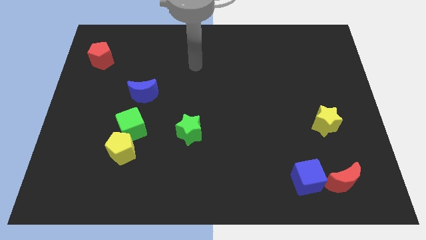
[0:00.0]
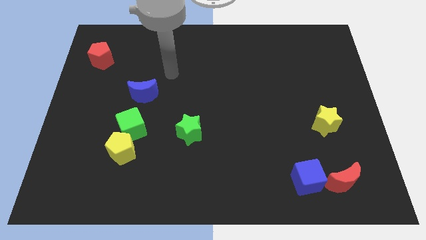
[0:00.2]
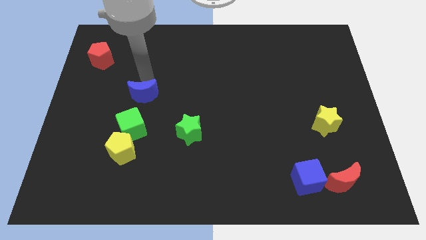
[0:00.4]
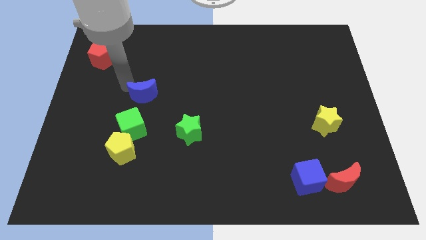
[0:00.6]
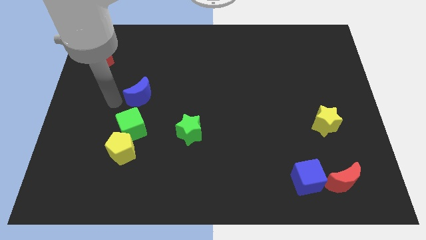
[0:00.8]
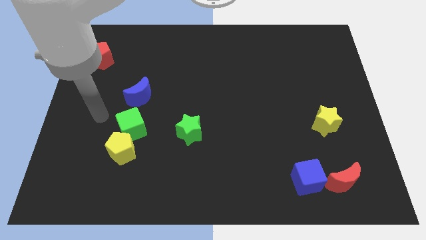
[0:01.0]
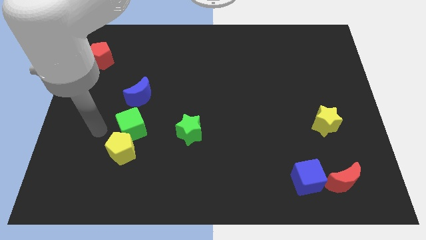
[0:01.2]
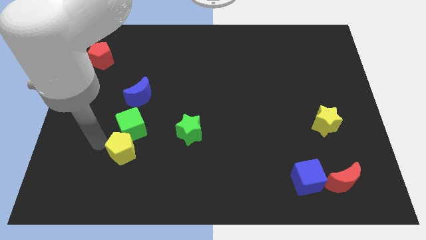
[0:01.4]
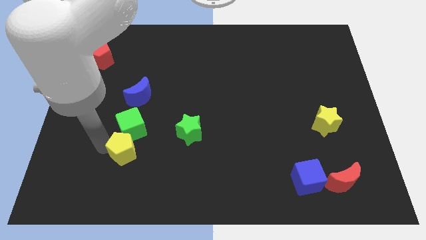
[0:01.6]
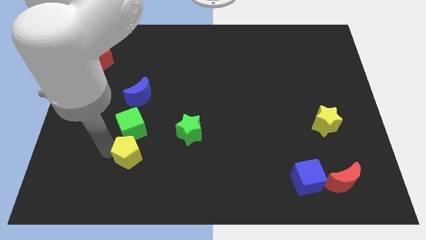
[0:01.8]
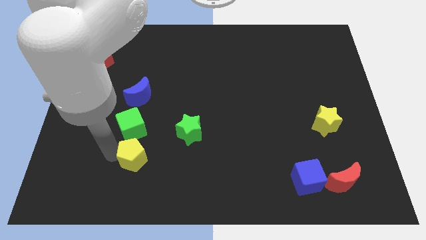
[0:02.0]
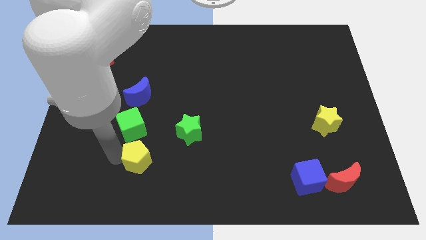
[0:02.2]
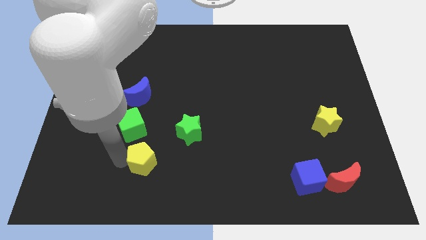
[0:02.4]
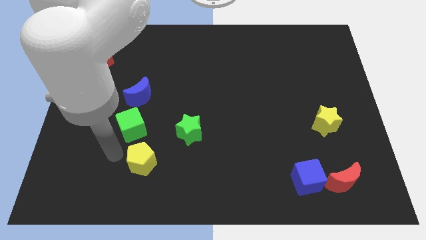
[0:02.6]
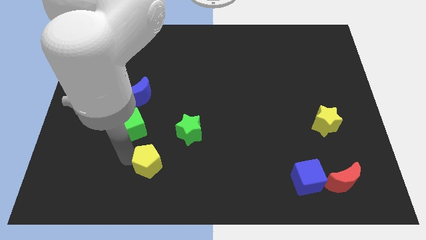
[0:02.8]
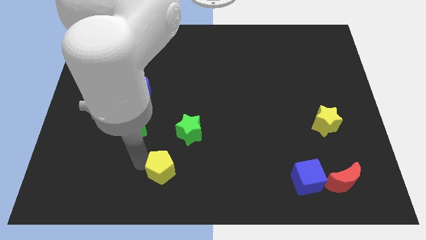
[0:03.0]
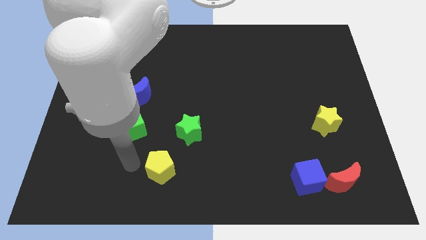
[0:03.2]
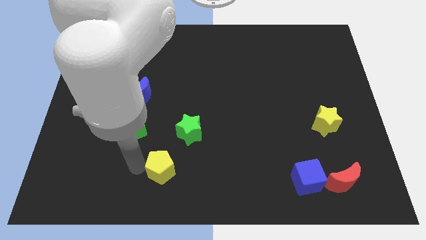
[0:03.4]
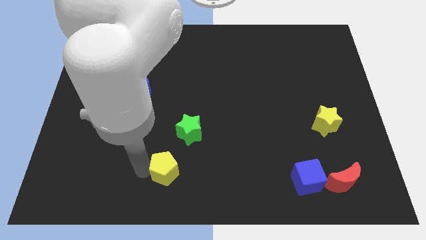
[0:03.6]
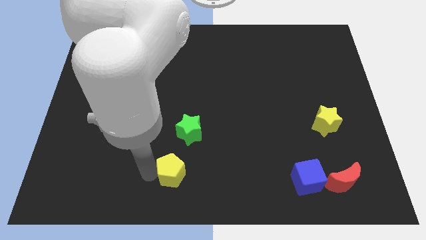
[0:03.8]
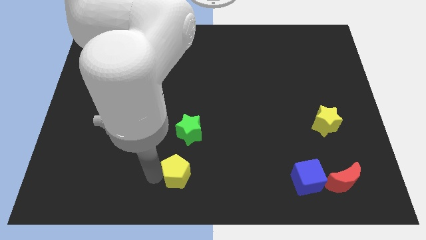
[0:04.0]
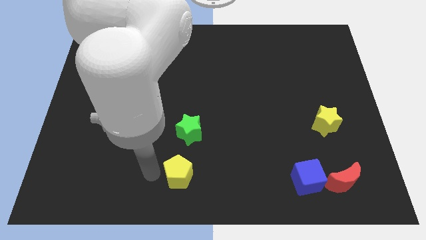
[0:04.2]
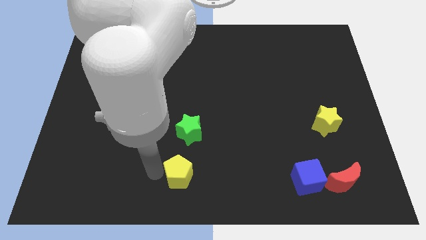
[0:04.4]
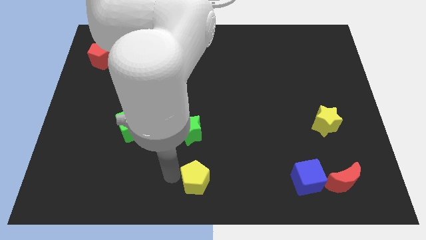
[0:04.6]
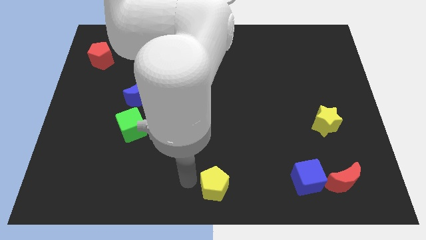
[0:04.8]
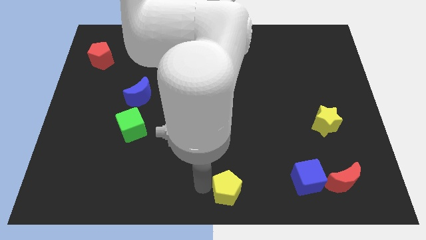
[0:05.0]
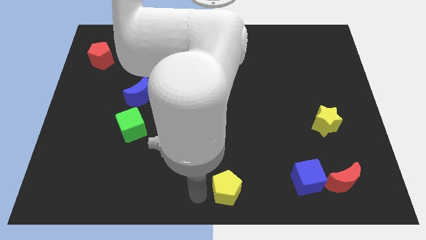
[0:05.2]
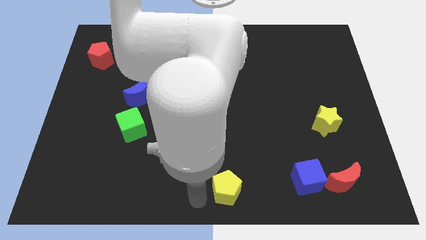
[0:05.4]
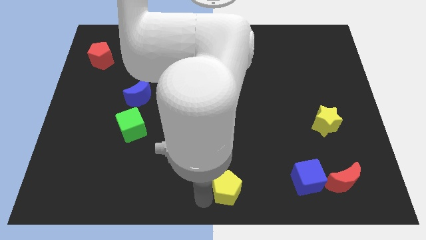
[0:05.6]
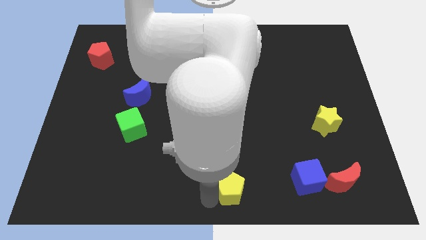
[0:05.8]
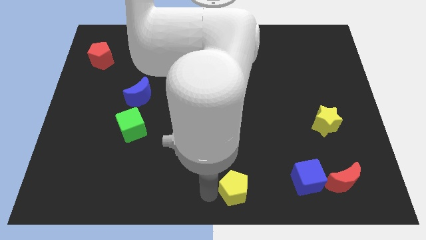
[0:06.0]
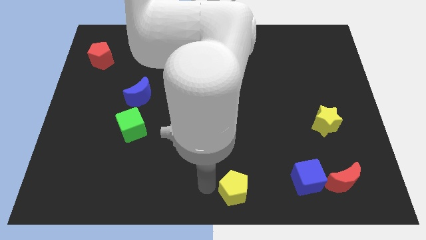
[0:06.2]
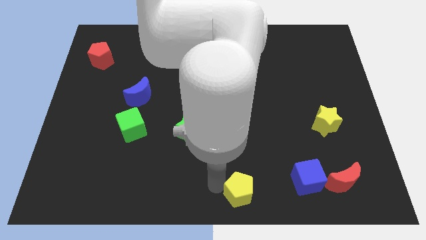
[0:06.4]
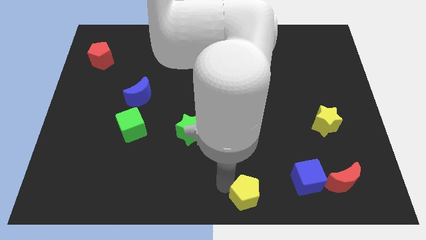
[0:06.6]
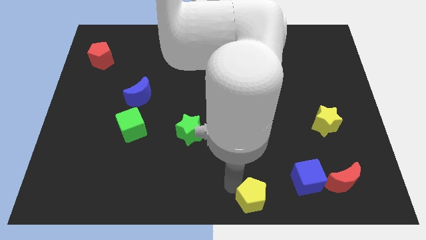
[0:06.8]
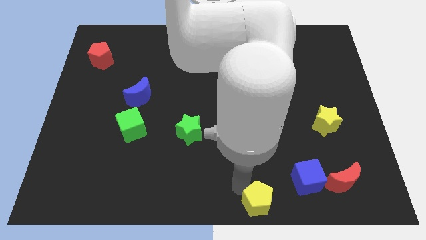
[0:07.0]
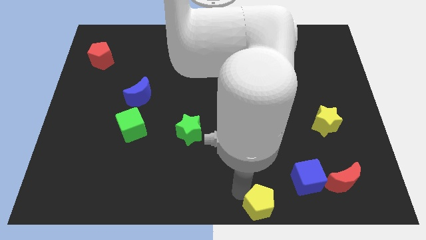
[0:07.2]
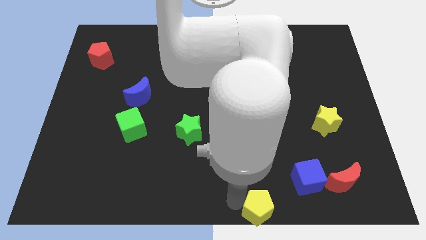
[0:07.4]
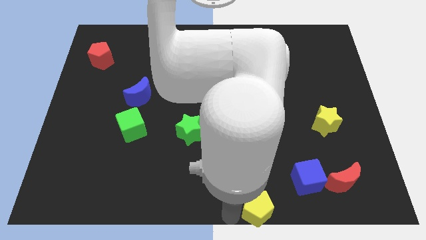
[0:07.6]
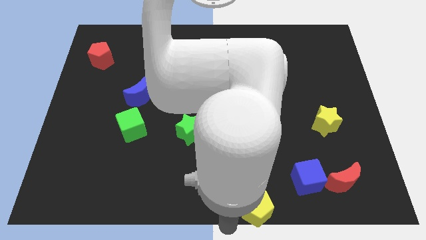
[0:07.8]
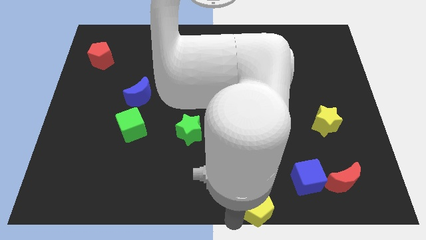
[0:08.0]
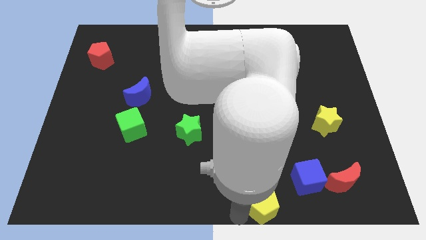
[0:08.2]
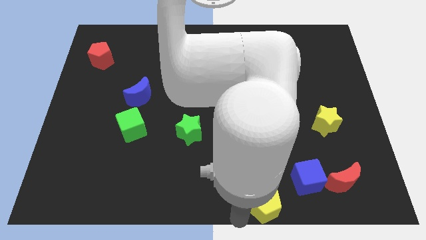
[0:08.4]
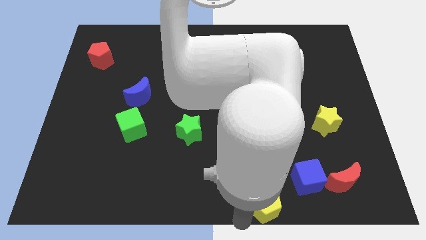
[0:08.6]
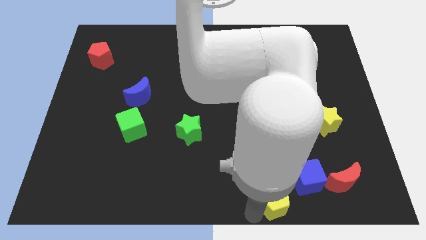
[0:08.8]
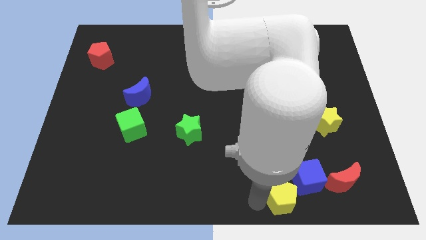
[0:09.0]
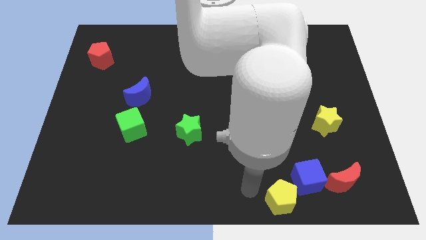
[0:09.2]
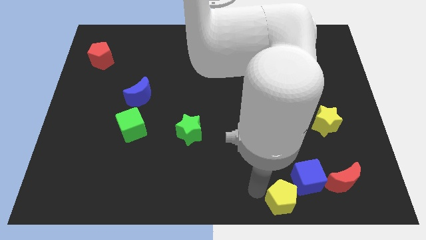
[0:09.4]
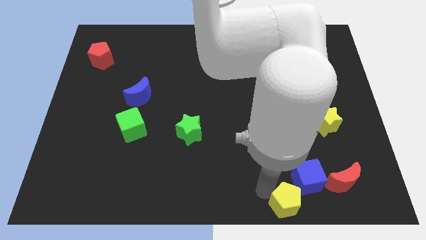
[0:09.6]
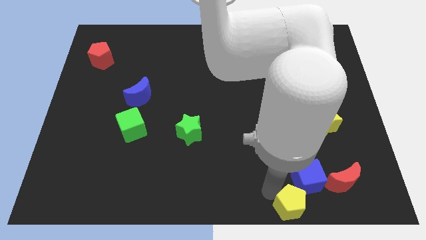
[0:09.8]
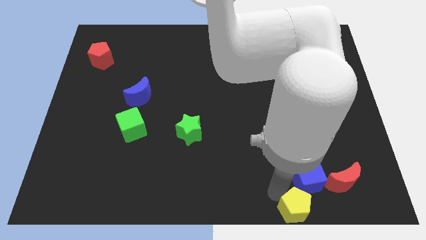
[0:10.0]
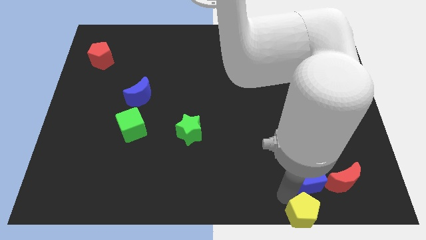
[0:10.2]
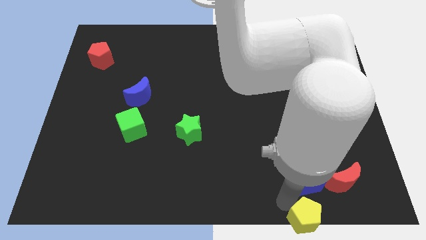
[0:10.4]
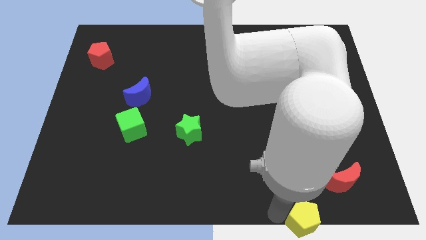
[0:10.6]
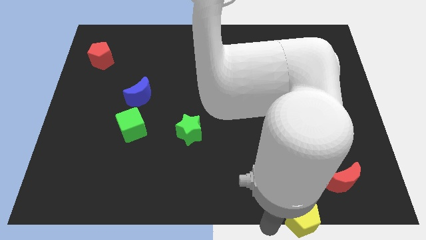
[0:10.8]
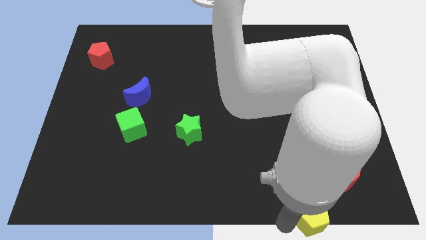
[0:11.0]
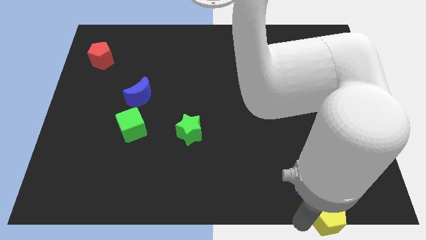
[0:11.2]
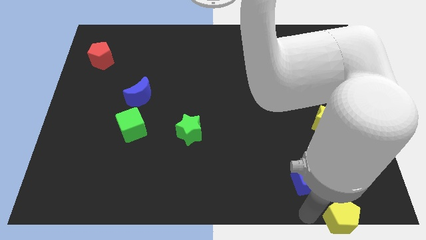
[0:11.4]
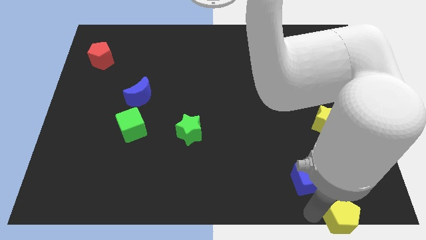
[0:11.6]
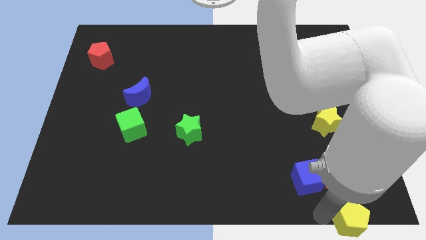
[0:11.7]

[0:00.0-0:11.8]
slide the yellow pentagon to the bottom right of the board
